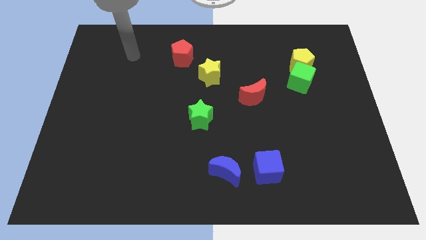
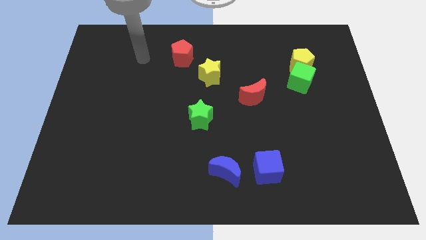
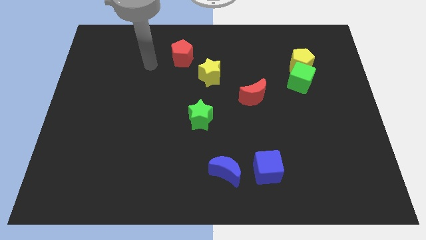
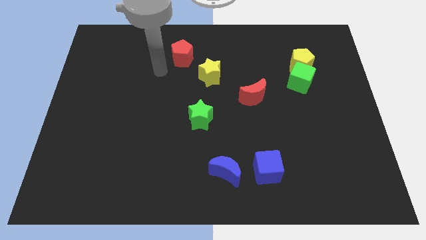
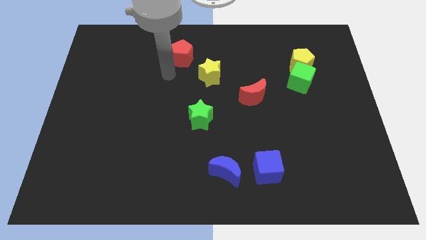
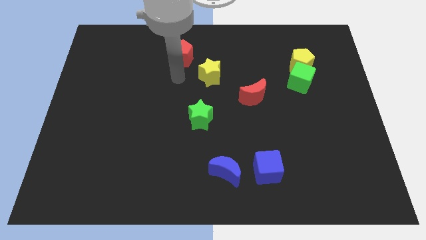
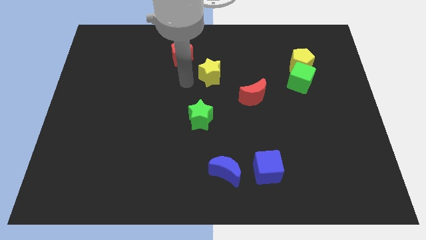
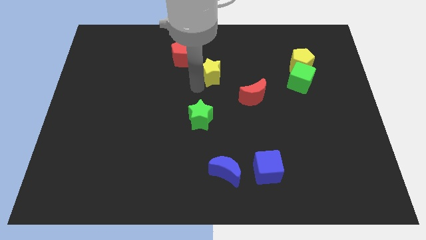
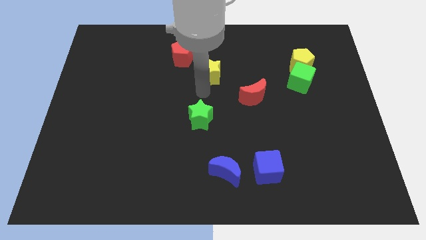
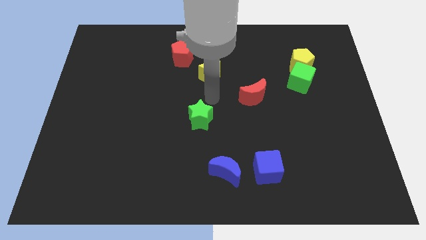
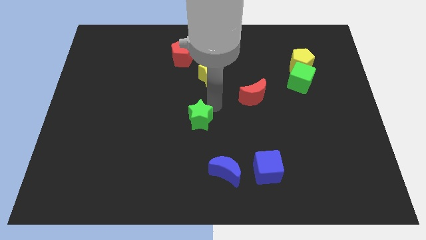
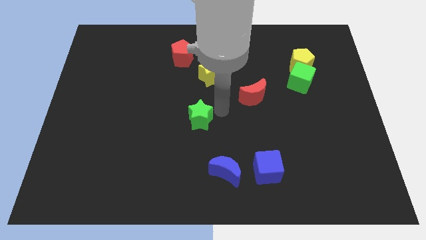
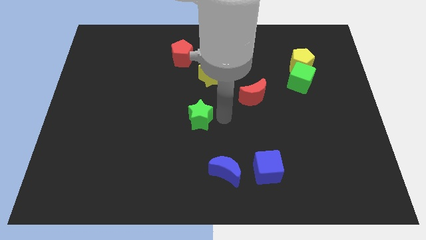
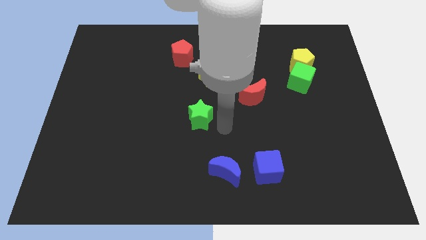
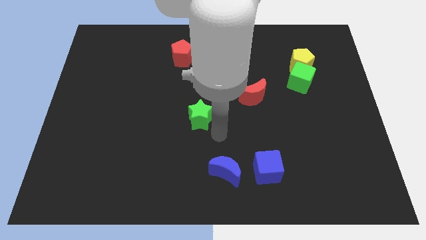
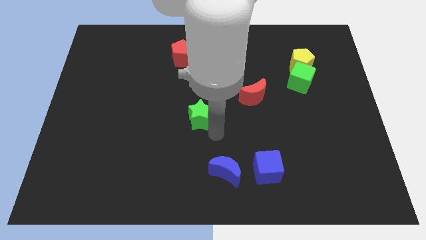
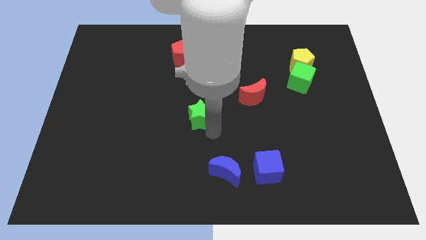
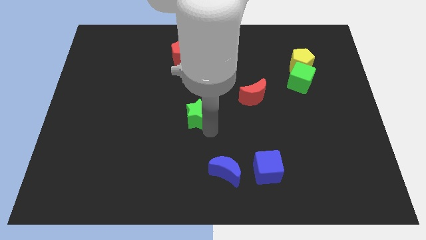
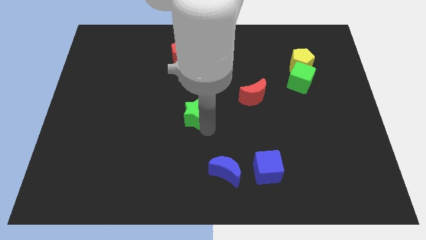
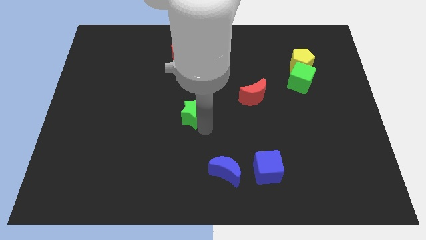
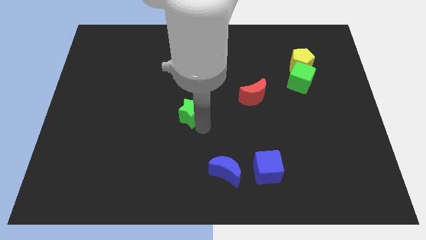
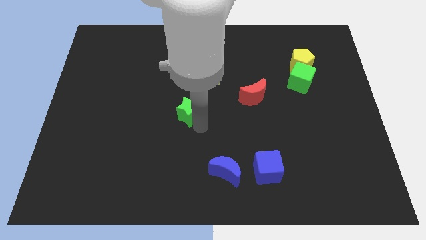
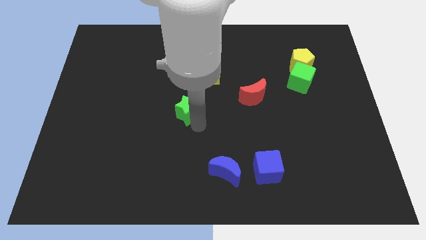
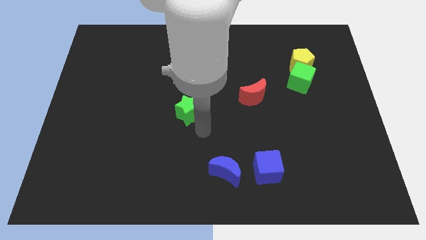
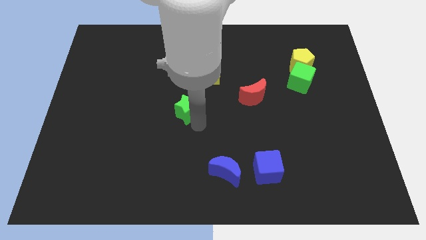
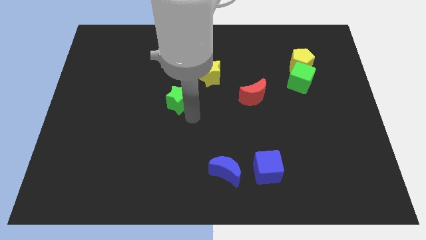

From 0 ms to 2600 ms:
slide the green star upwards and to the left diagonally slightly

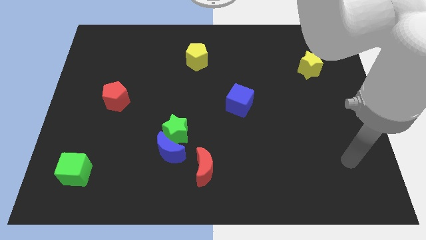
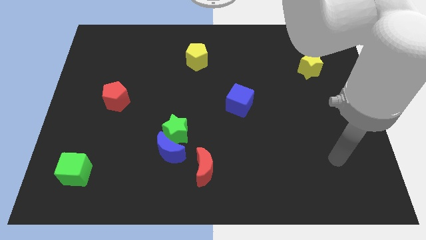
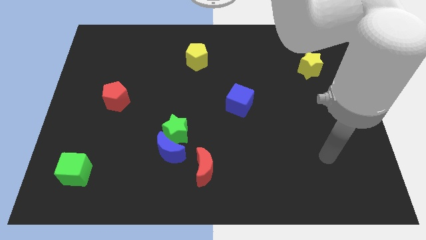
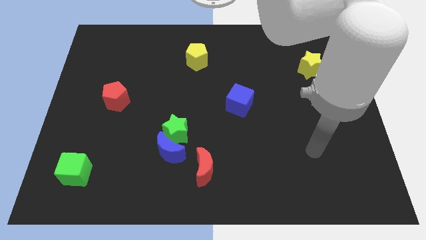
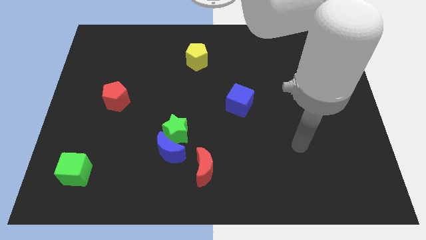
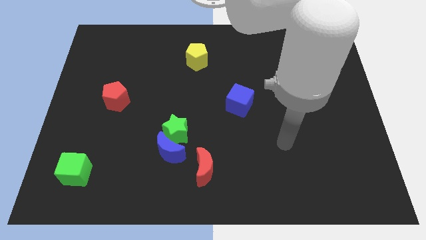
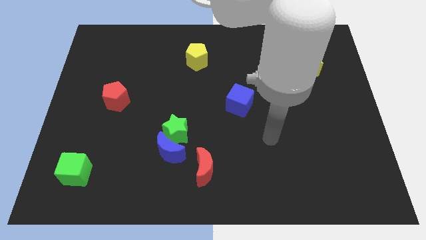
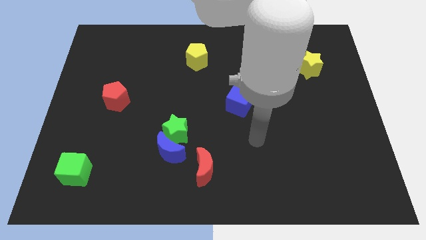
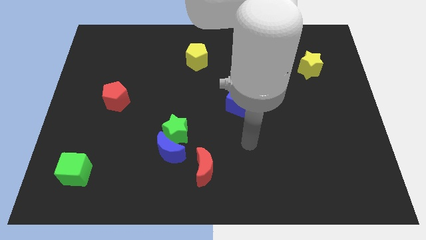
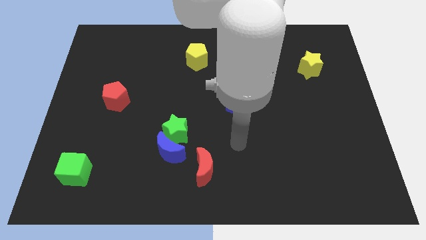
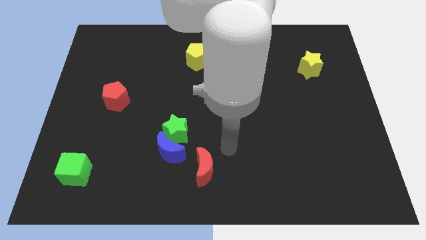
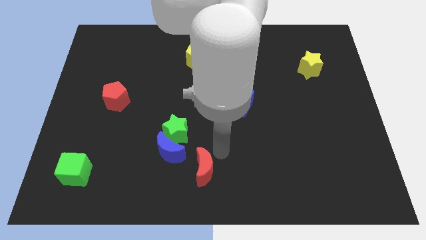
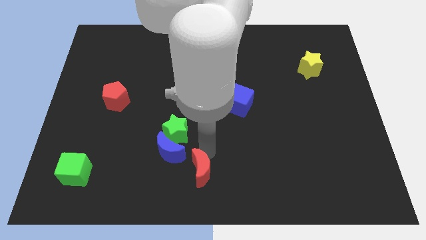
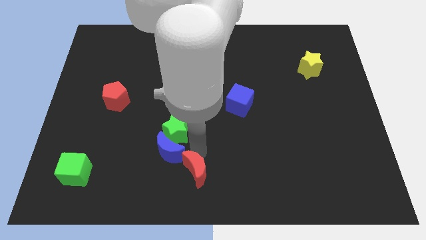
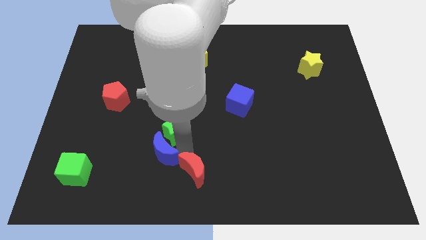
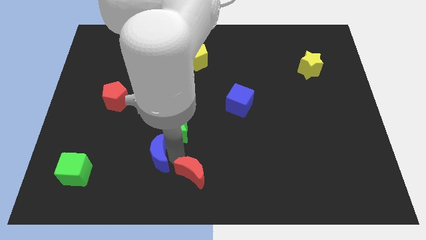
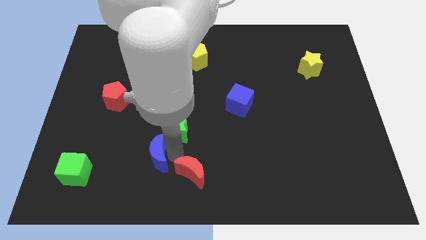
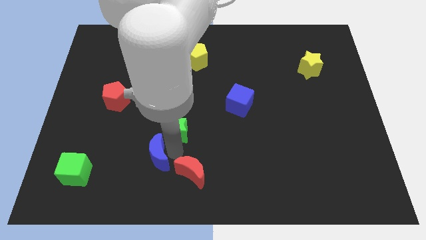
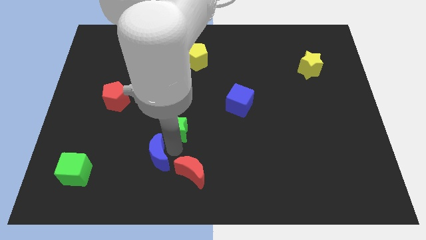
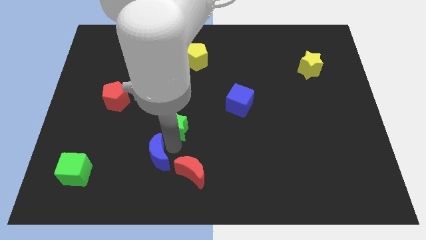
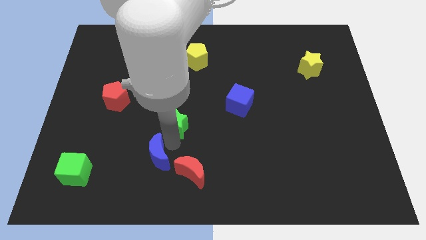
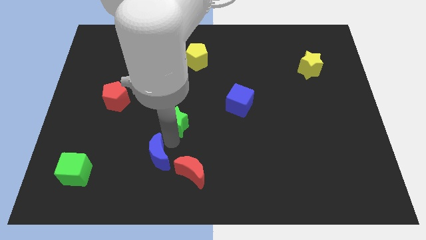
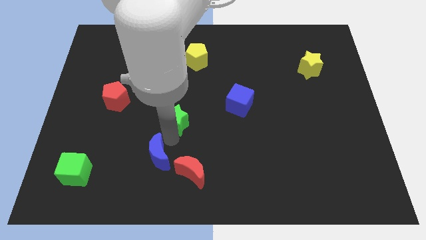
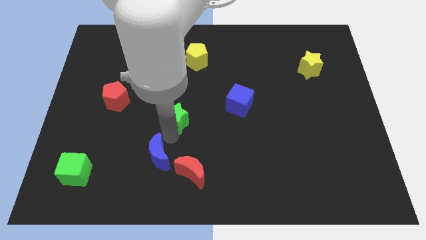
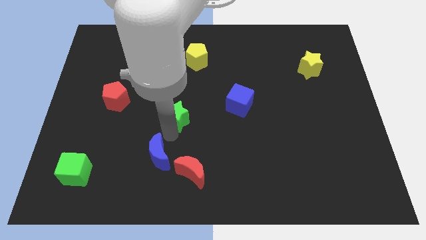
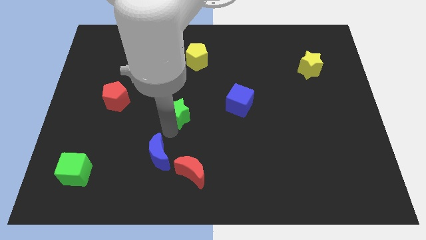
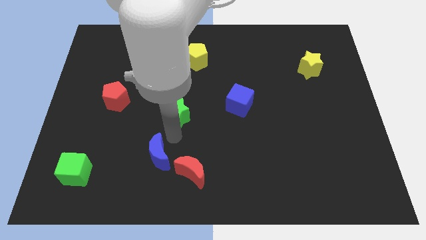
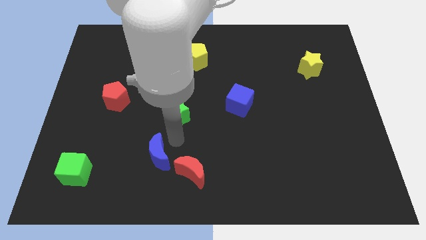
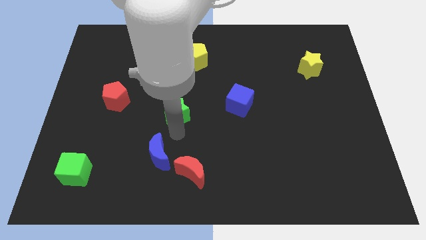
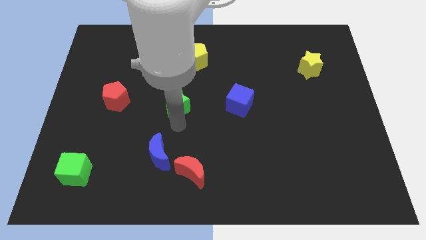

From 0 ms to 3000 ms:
move the green star upwards a little bit

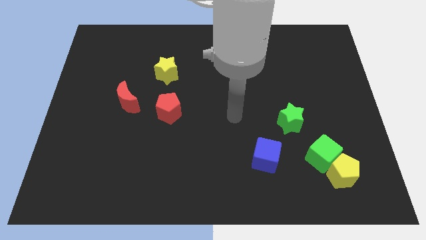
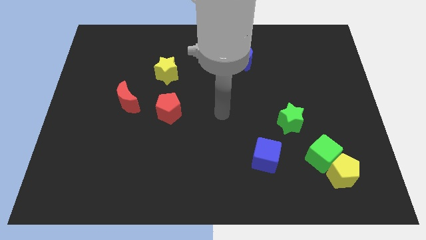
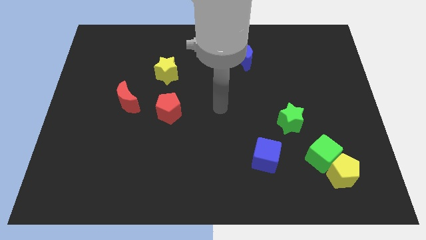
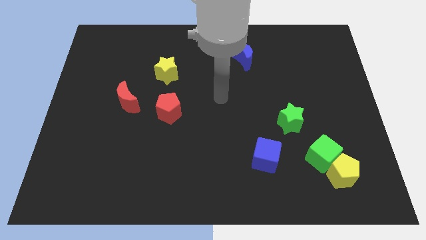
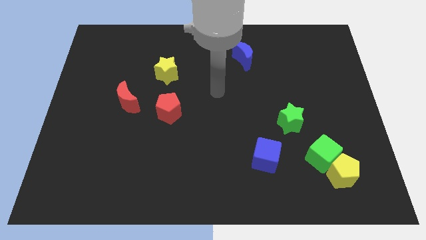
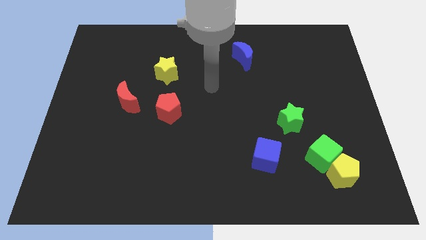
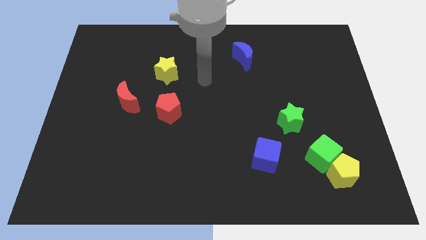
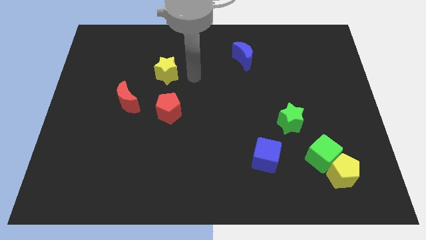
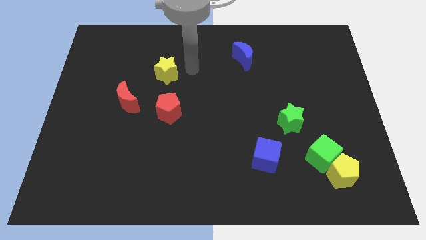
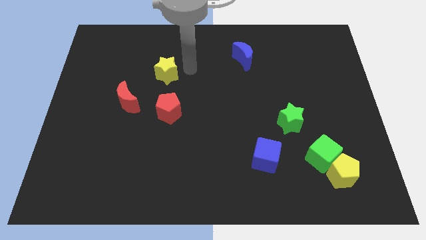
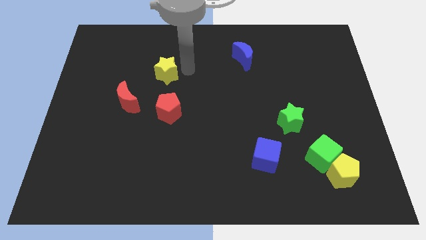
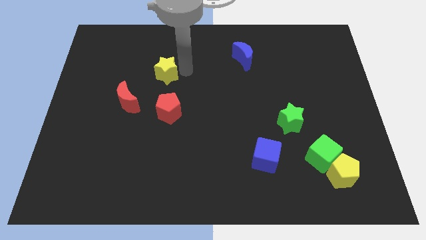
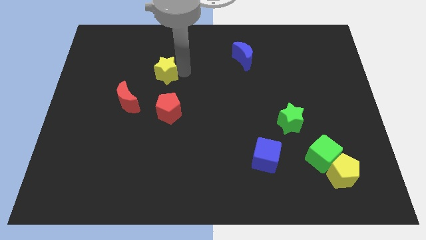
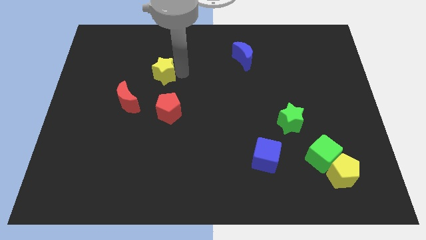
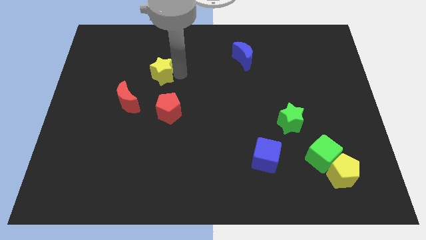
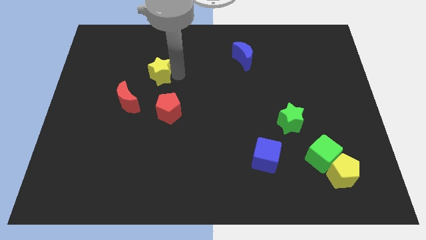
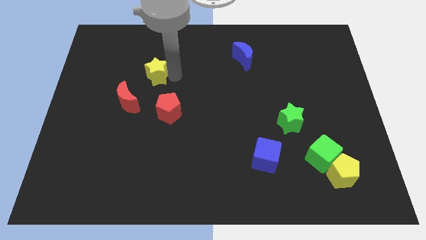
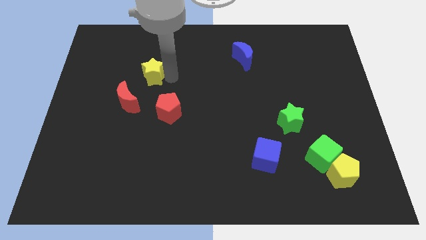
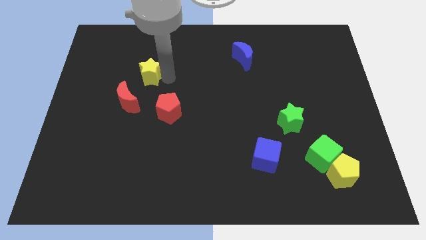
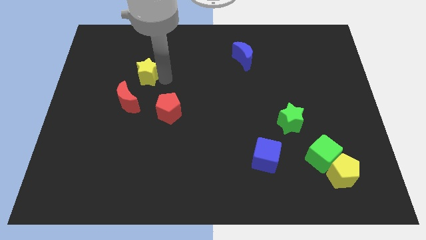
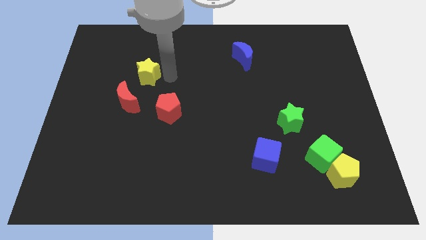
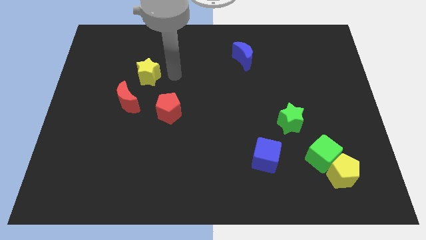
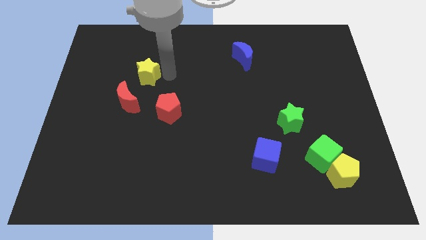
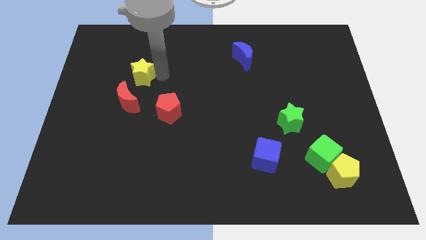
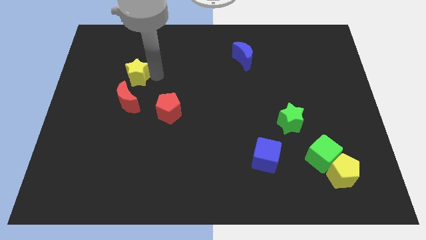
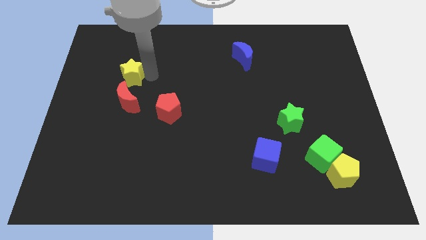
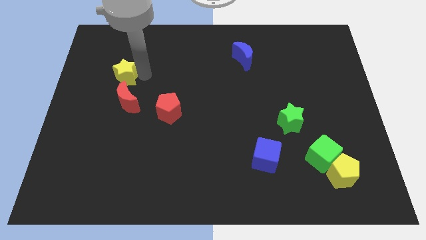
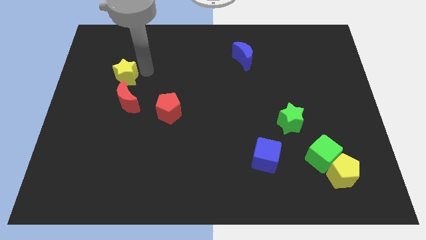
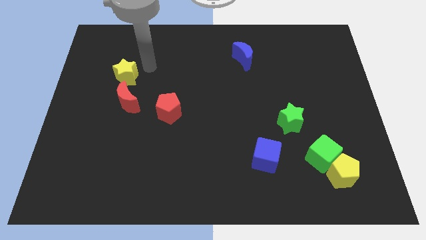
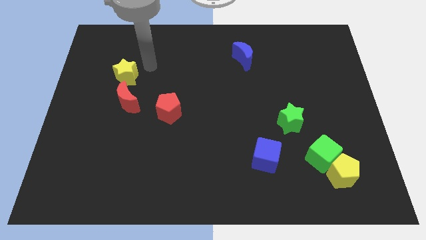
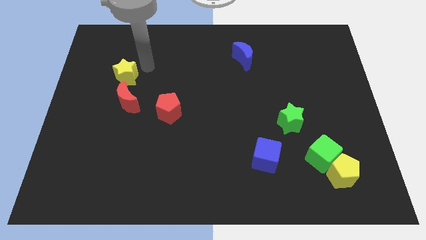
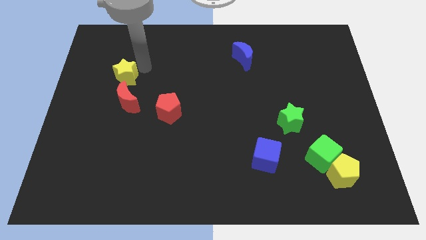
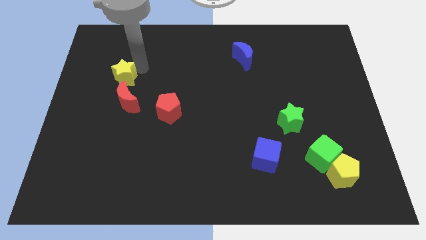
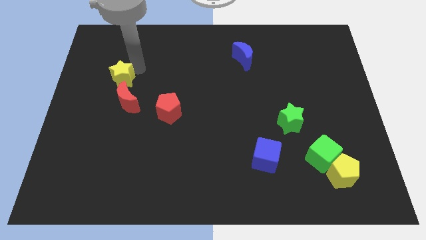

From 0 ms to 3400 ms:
push the yellow star slightly downwards and left diagonally
